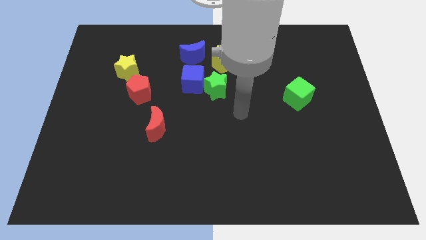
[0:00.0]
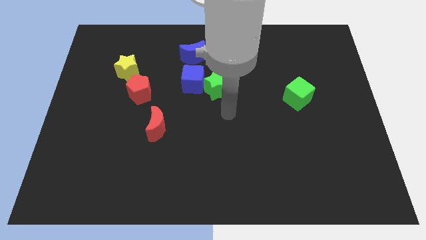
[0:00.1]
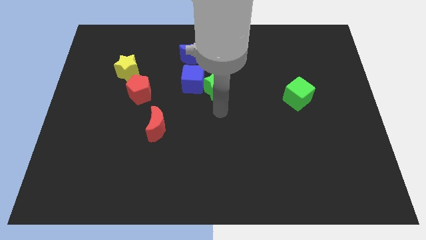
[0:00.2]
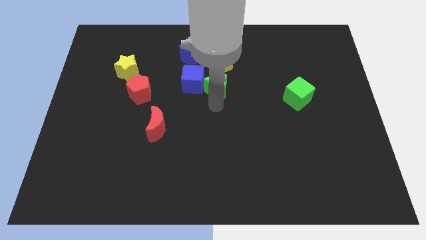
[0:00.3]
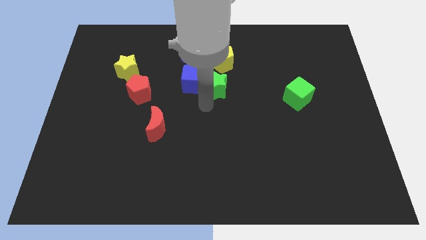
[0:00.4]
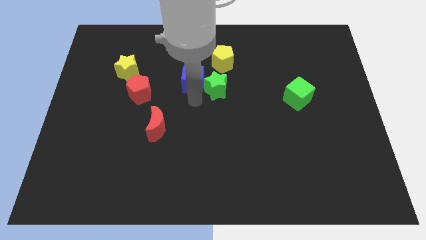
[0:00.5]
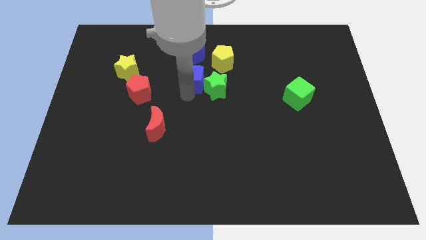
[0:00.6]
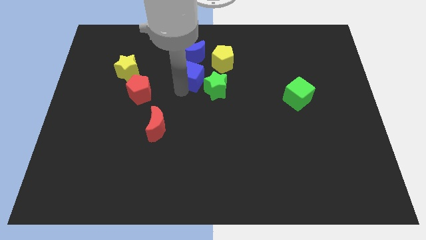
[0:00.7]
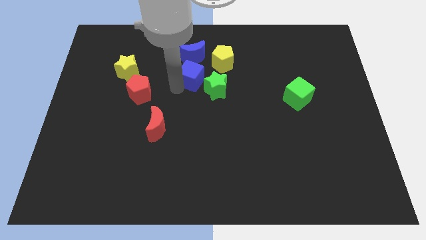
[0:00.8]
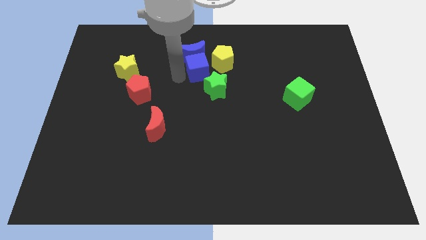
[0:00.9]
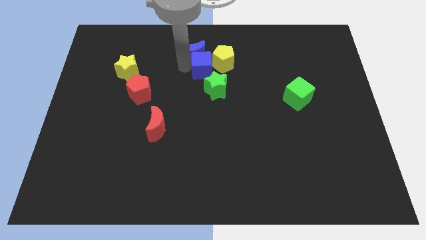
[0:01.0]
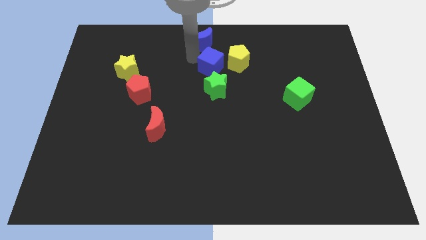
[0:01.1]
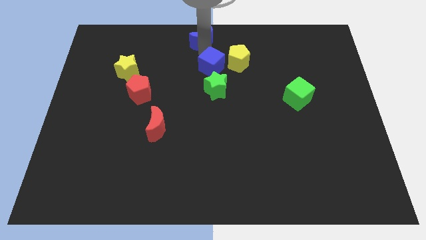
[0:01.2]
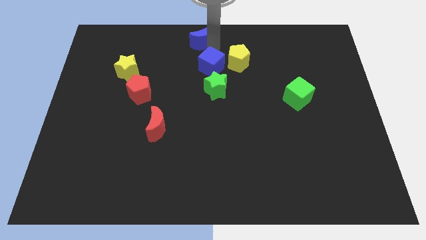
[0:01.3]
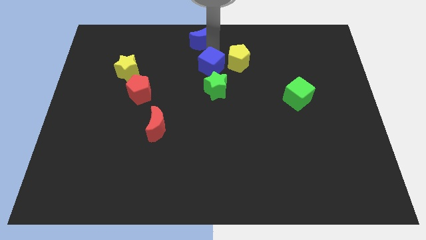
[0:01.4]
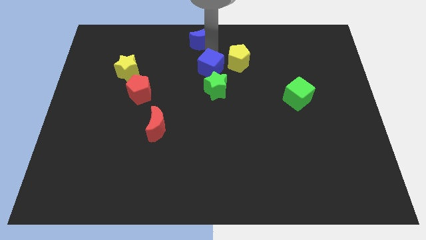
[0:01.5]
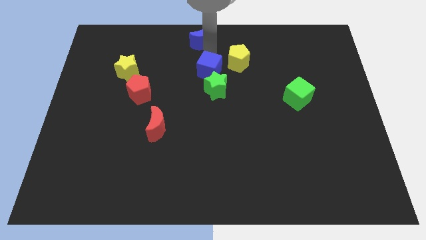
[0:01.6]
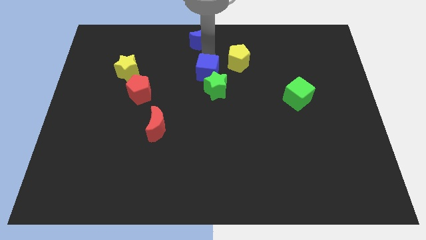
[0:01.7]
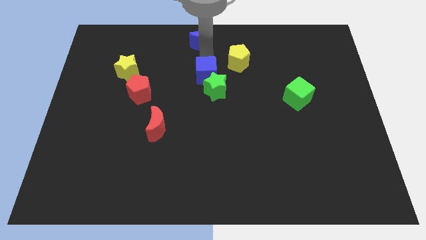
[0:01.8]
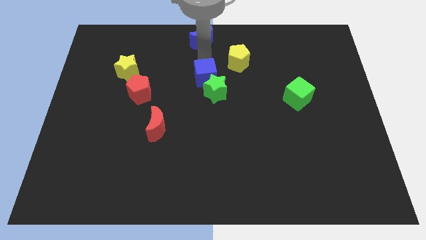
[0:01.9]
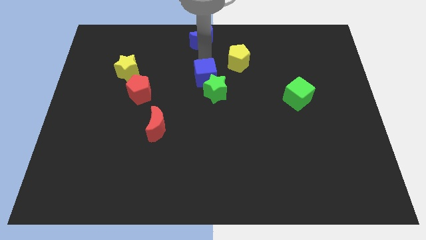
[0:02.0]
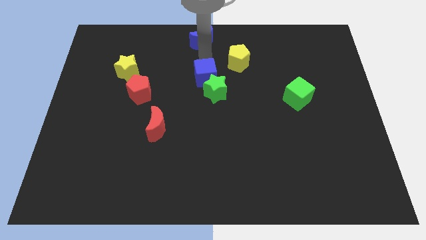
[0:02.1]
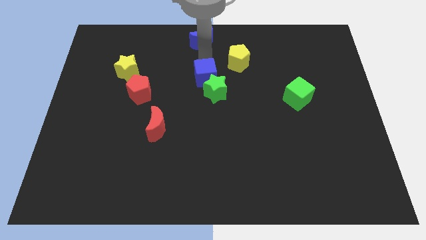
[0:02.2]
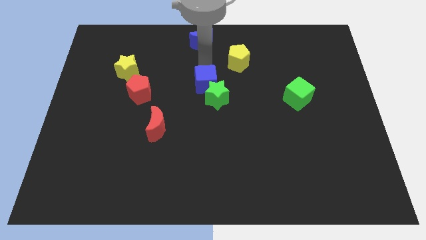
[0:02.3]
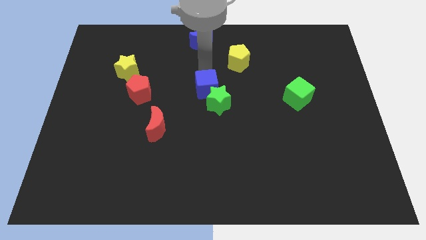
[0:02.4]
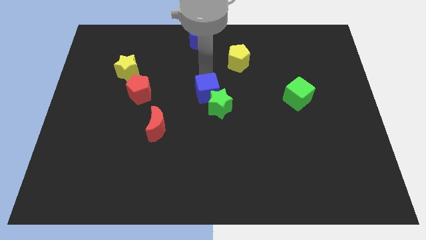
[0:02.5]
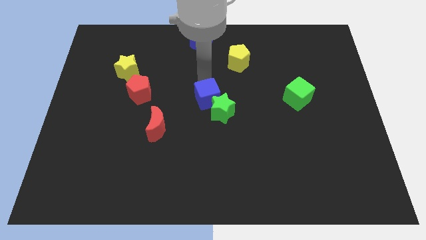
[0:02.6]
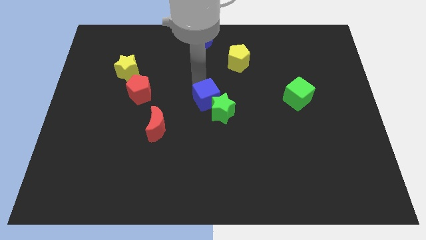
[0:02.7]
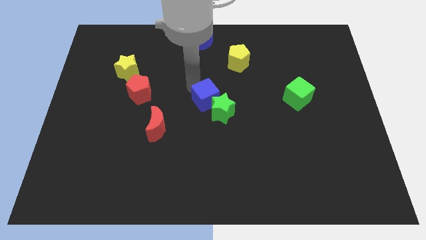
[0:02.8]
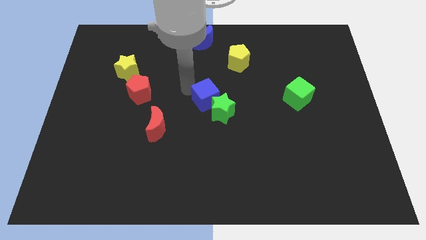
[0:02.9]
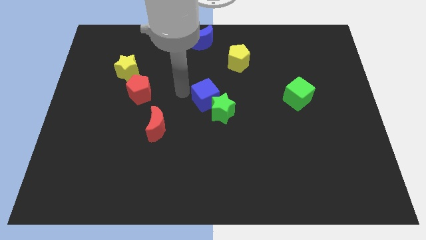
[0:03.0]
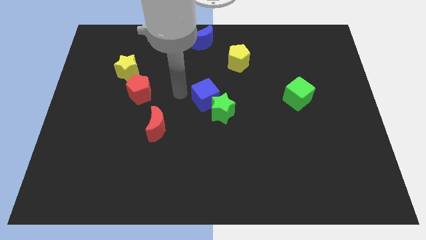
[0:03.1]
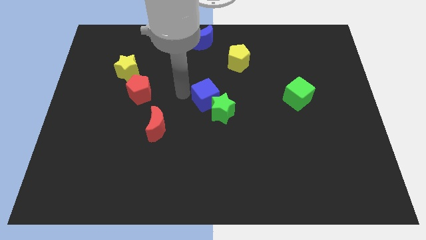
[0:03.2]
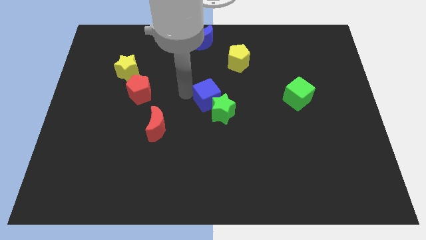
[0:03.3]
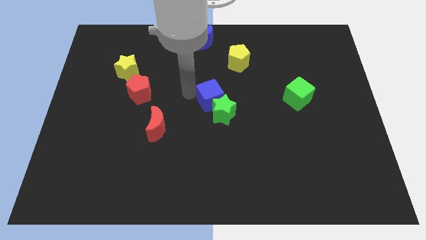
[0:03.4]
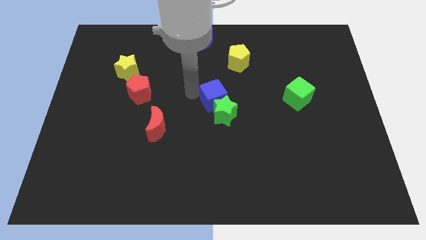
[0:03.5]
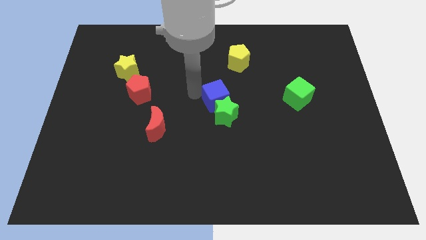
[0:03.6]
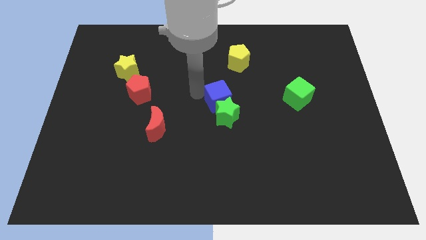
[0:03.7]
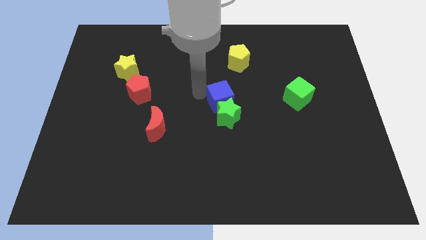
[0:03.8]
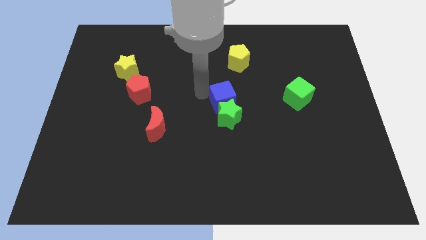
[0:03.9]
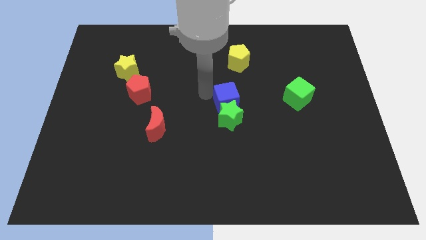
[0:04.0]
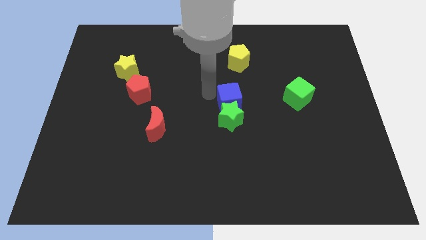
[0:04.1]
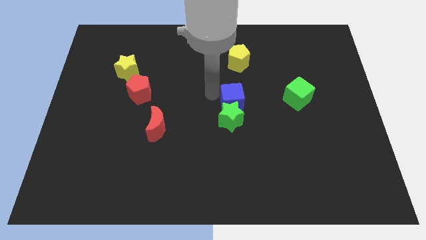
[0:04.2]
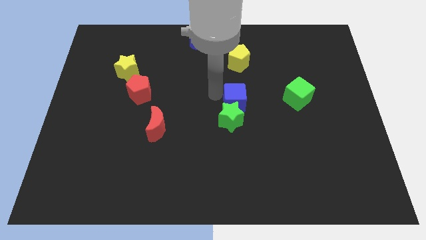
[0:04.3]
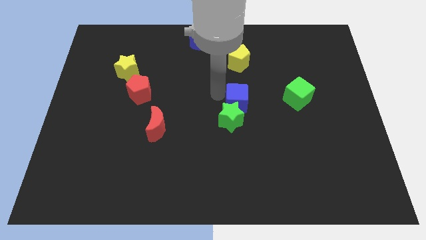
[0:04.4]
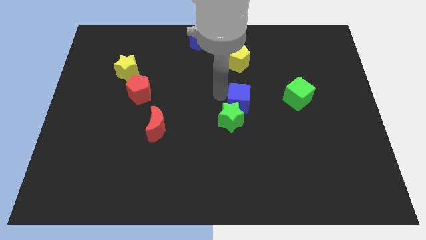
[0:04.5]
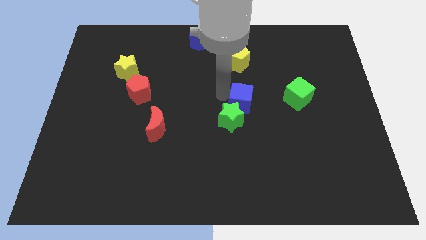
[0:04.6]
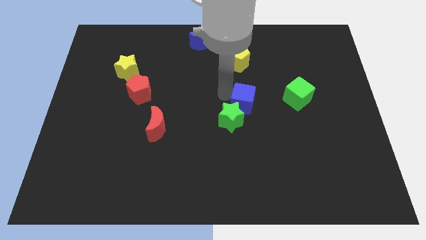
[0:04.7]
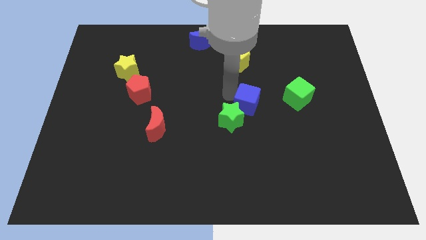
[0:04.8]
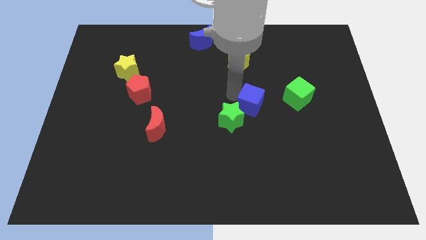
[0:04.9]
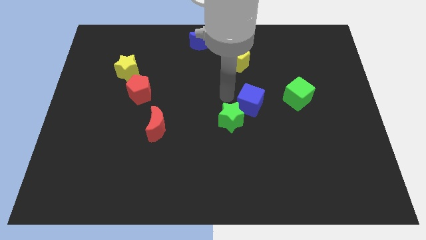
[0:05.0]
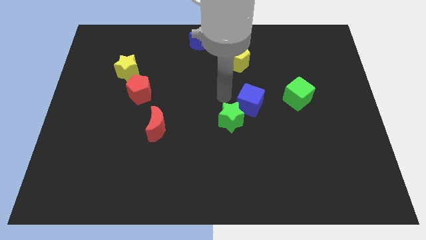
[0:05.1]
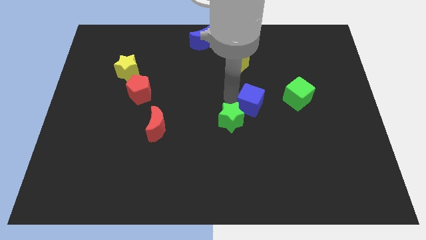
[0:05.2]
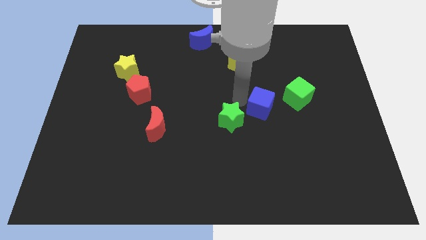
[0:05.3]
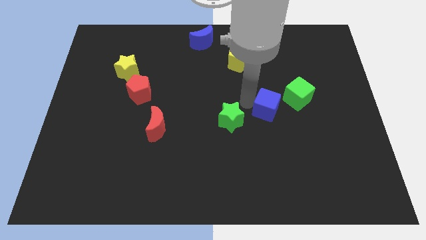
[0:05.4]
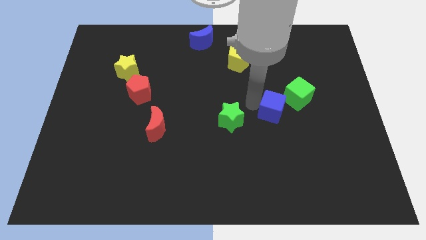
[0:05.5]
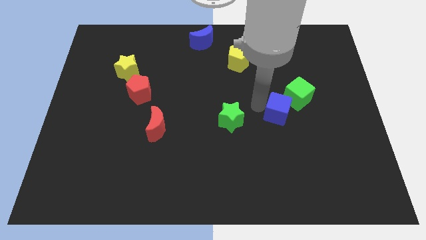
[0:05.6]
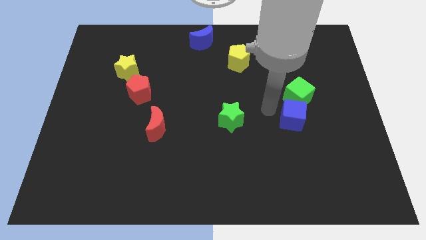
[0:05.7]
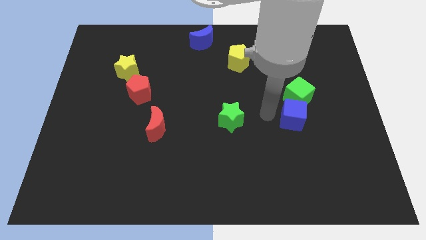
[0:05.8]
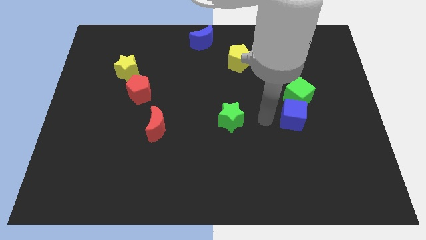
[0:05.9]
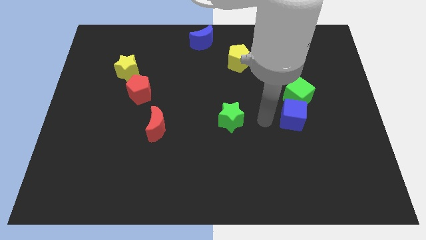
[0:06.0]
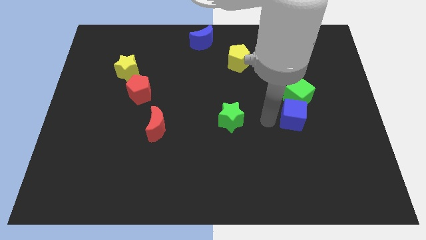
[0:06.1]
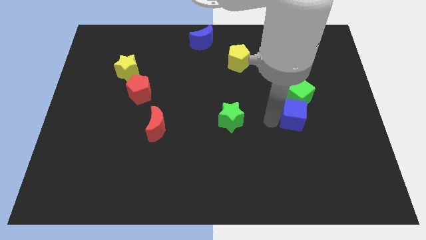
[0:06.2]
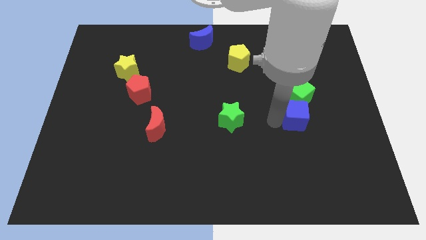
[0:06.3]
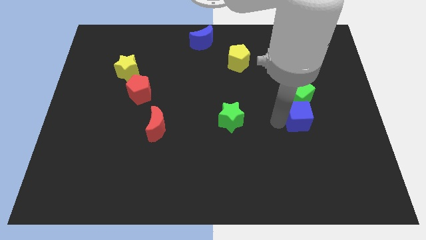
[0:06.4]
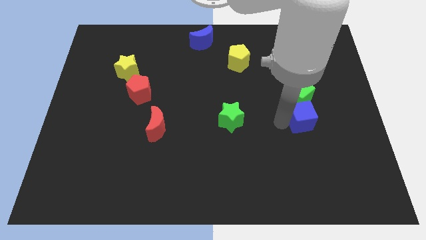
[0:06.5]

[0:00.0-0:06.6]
put the blue cube diagonally down and to the right of the green cube

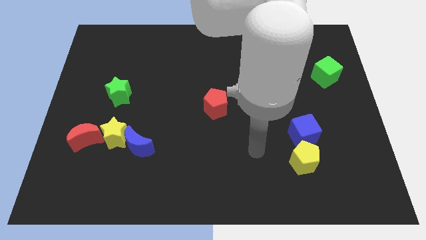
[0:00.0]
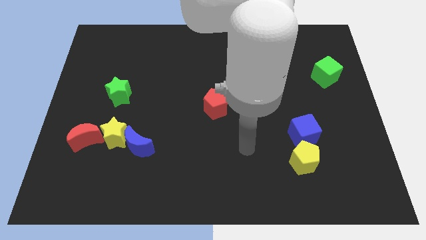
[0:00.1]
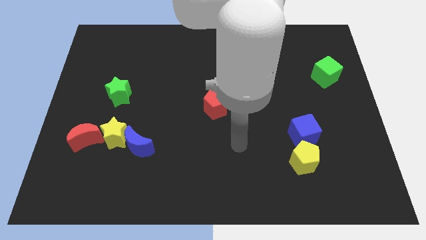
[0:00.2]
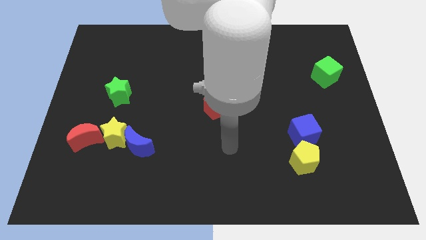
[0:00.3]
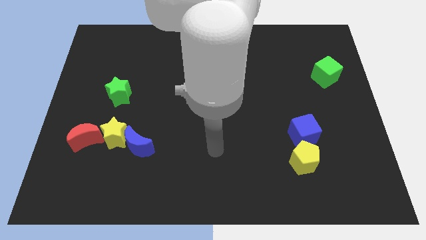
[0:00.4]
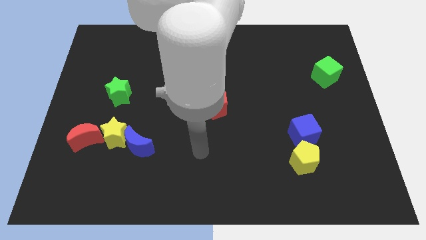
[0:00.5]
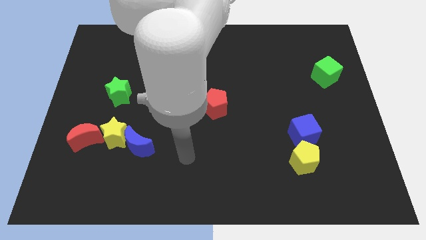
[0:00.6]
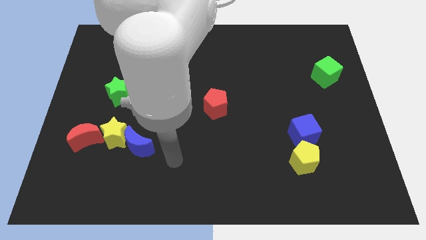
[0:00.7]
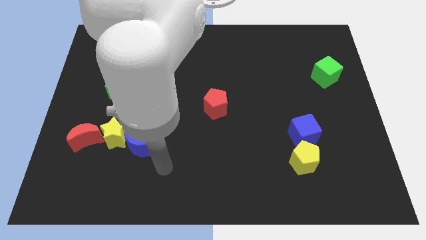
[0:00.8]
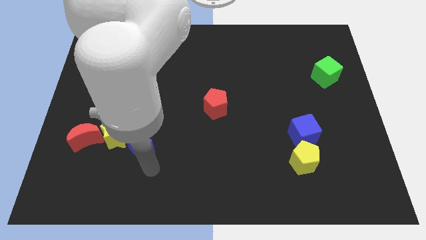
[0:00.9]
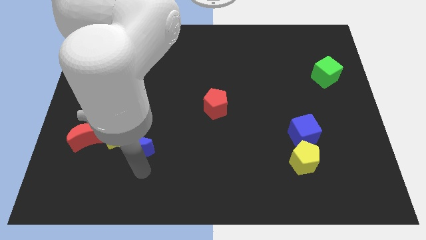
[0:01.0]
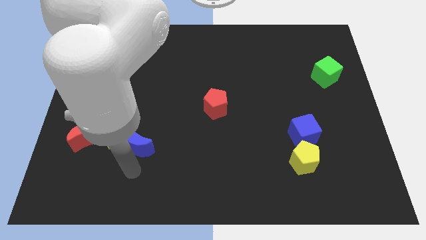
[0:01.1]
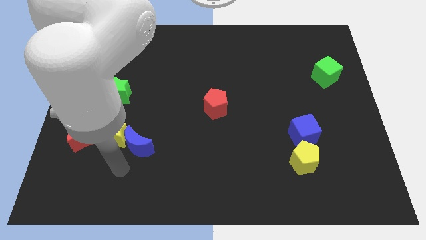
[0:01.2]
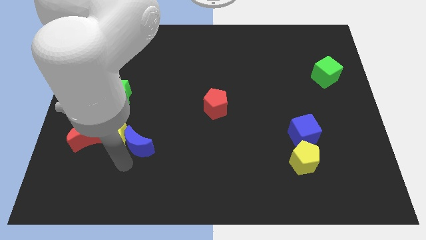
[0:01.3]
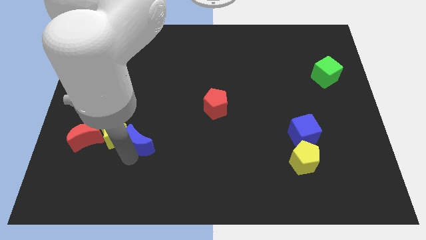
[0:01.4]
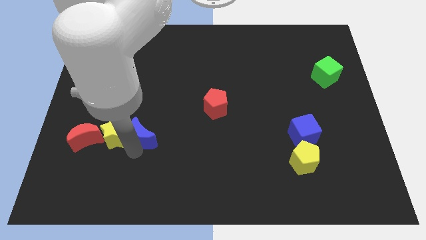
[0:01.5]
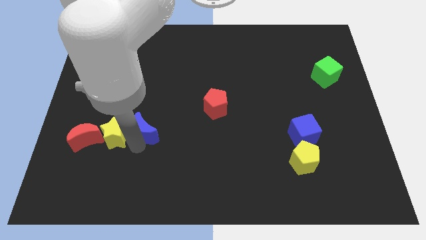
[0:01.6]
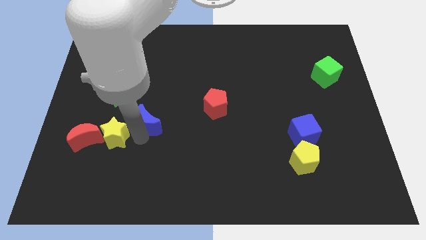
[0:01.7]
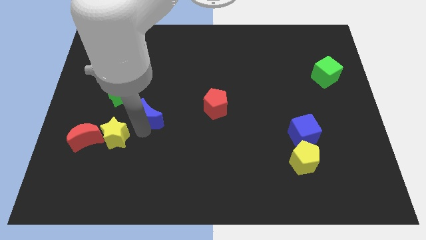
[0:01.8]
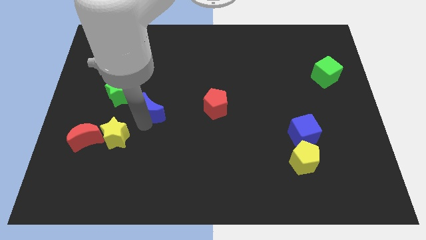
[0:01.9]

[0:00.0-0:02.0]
push the blue moon to the left of the red pentagon
